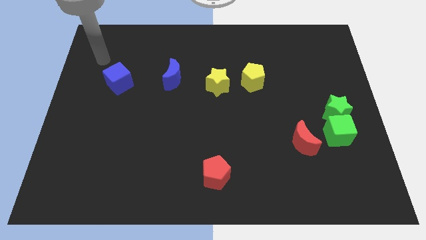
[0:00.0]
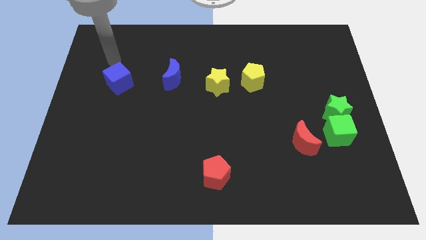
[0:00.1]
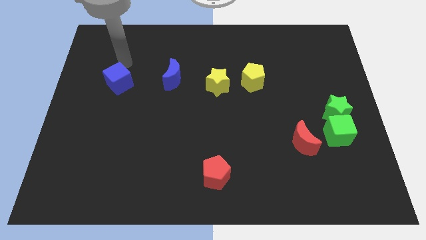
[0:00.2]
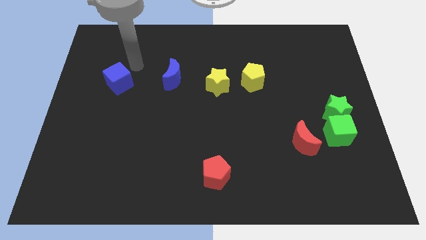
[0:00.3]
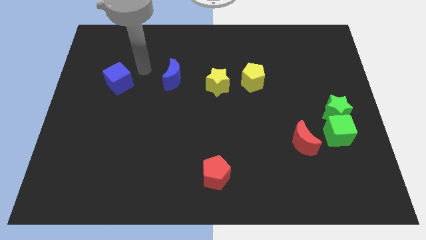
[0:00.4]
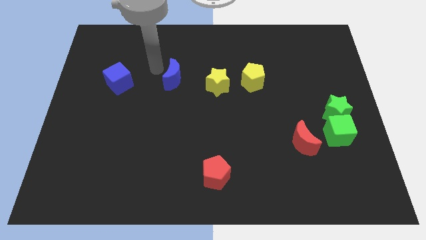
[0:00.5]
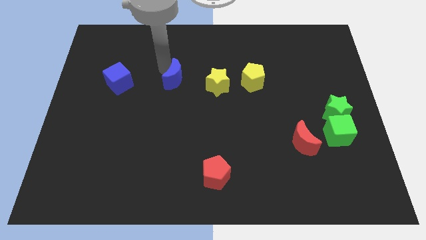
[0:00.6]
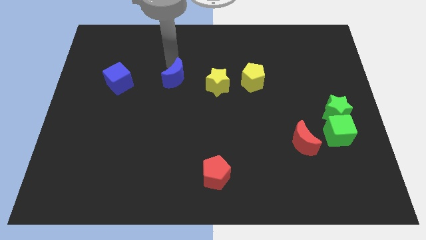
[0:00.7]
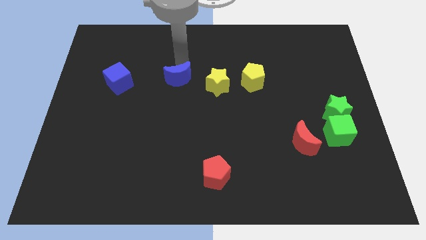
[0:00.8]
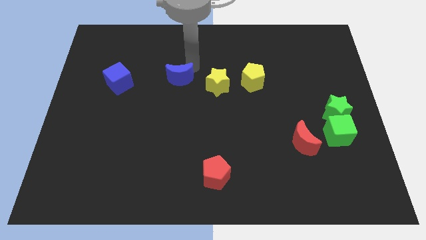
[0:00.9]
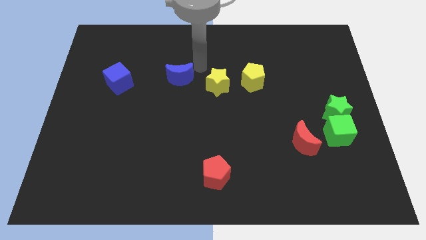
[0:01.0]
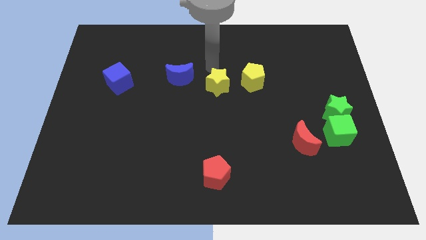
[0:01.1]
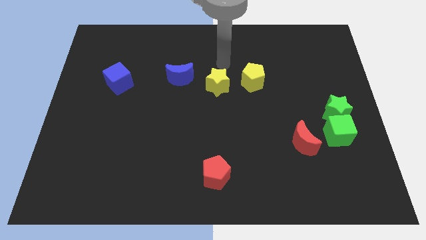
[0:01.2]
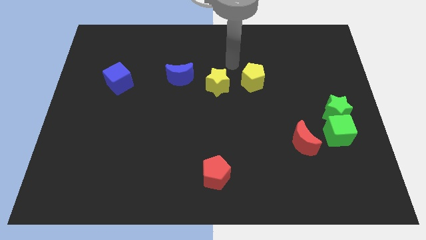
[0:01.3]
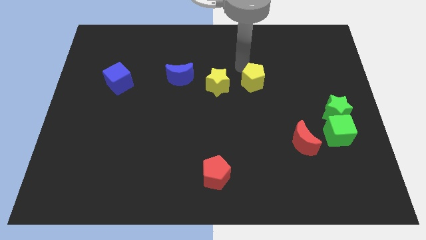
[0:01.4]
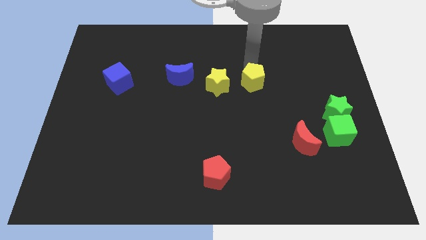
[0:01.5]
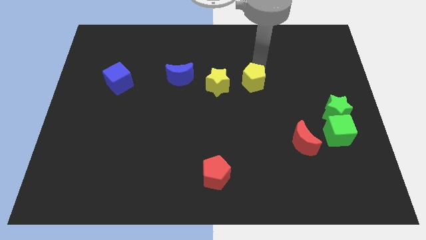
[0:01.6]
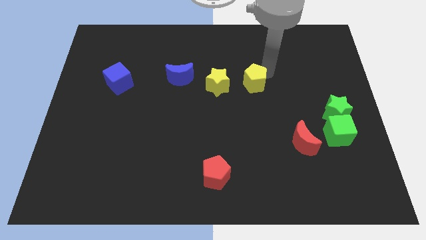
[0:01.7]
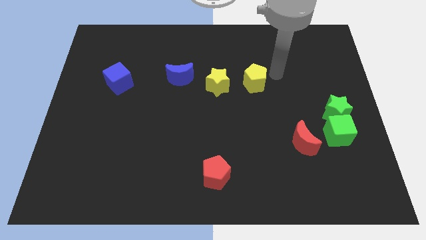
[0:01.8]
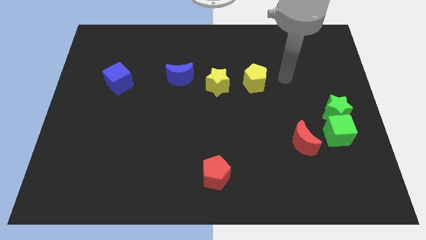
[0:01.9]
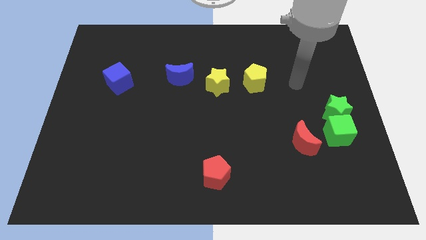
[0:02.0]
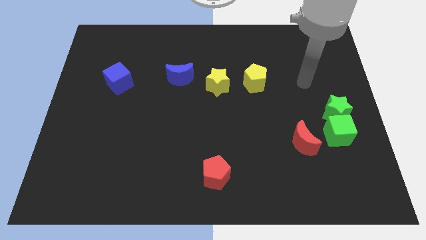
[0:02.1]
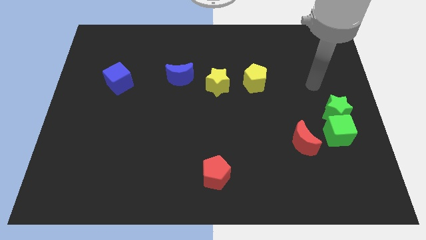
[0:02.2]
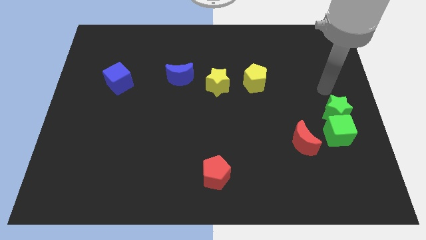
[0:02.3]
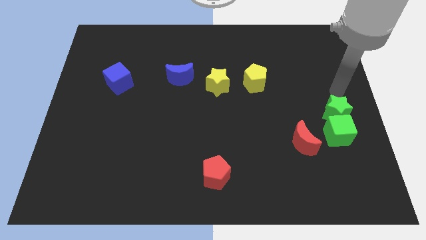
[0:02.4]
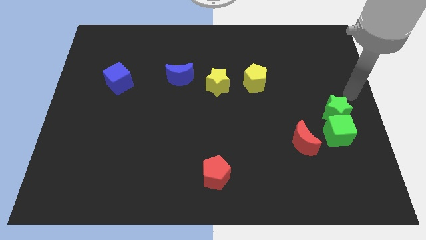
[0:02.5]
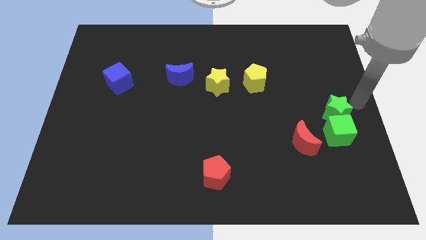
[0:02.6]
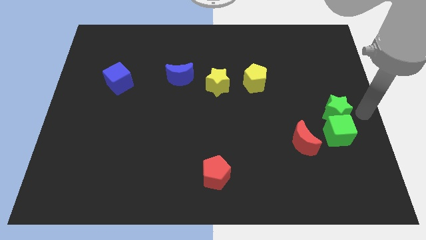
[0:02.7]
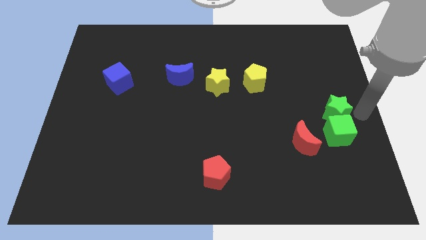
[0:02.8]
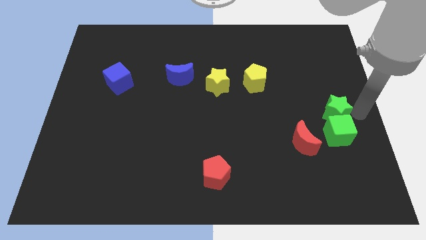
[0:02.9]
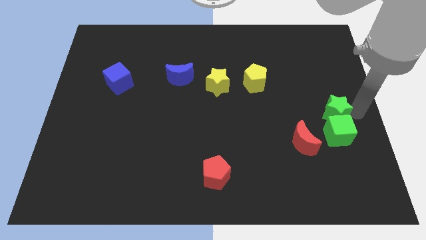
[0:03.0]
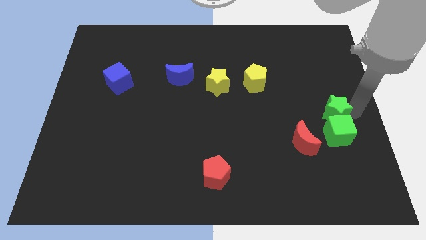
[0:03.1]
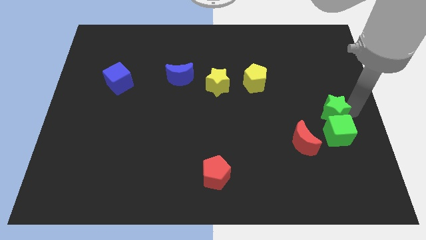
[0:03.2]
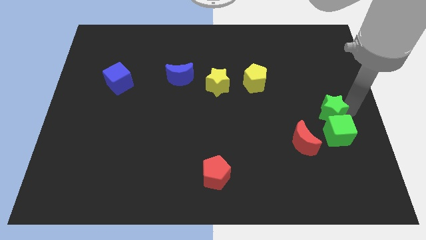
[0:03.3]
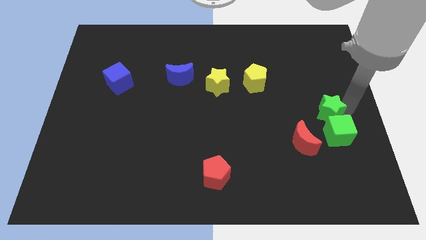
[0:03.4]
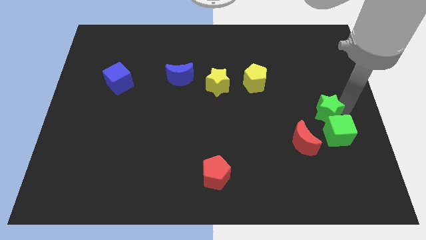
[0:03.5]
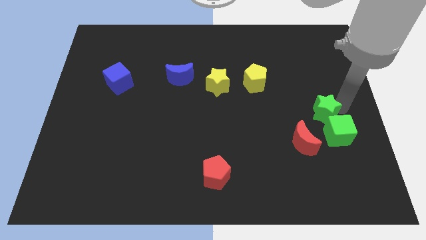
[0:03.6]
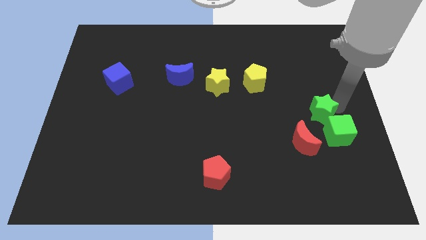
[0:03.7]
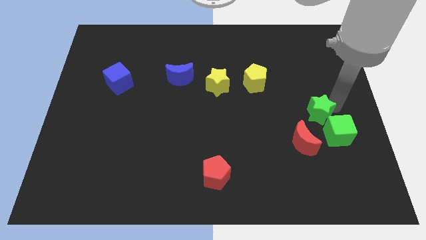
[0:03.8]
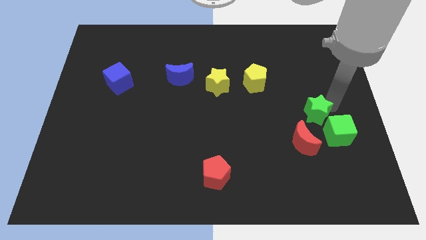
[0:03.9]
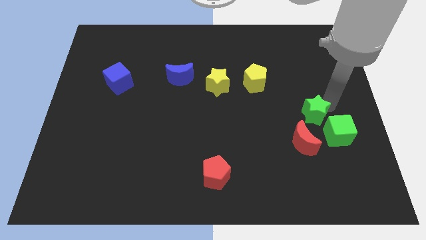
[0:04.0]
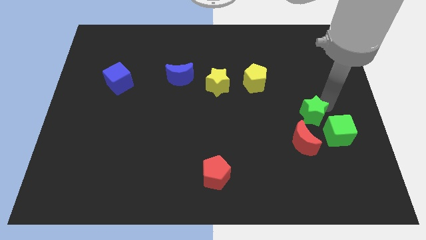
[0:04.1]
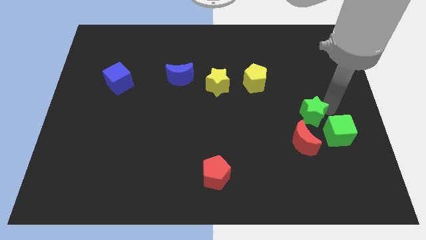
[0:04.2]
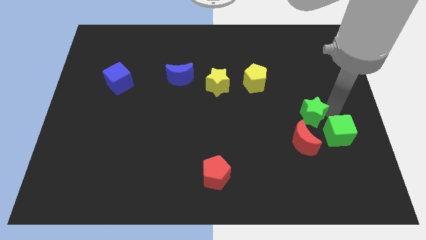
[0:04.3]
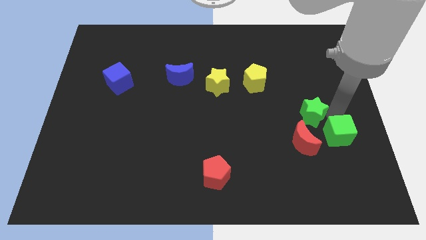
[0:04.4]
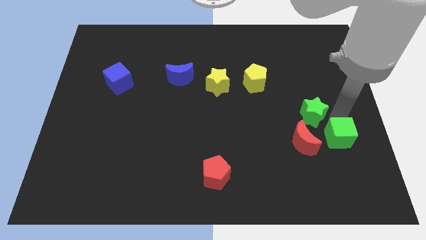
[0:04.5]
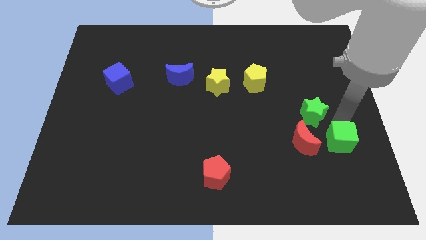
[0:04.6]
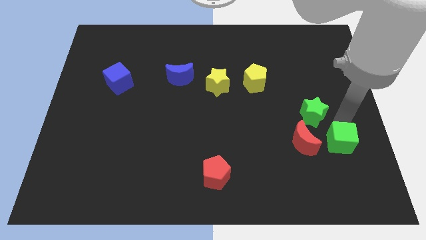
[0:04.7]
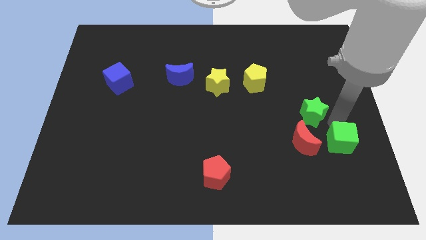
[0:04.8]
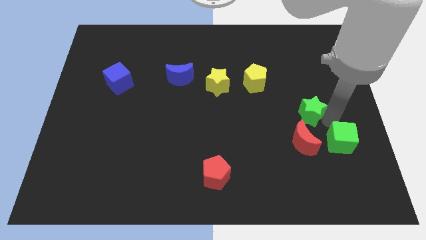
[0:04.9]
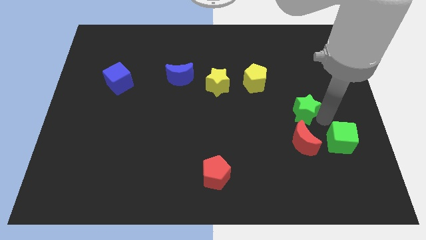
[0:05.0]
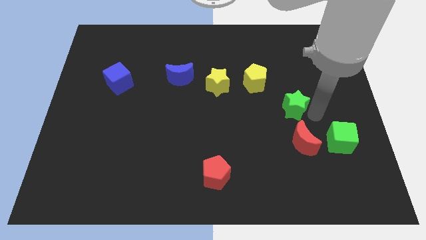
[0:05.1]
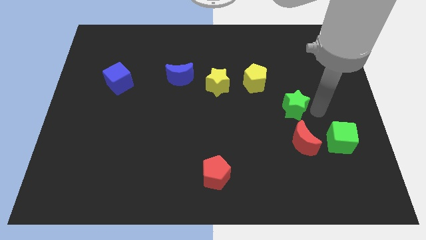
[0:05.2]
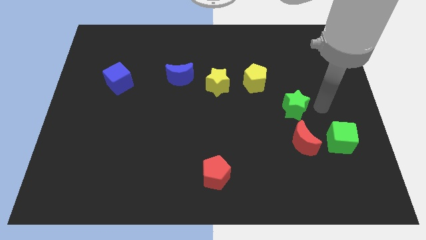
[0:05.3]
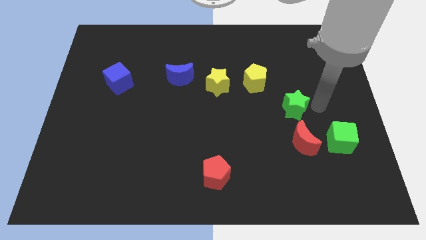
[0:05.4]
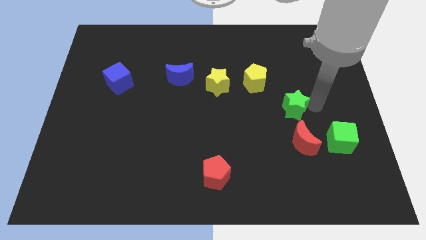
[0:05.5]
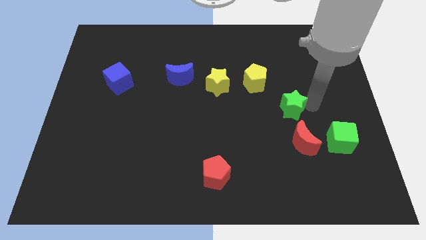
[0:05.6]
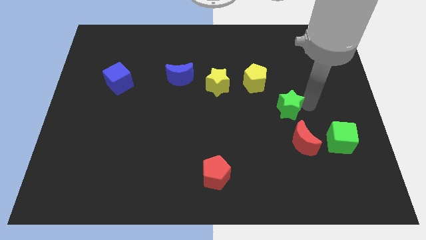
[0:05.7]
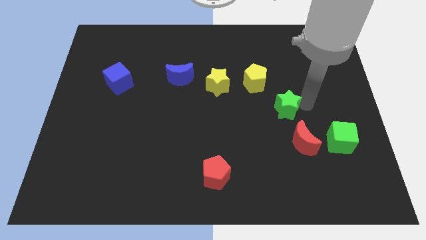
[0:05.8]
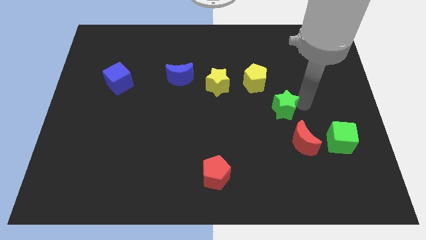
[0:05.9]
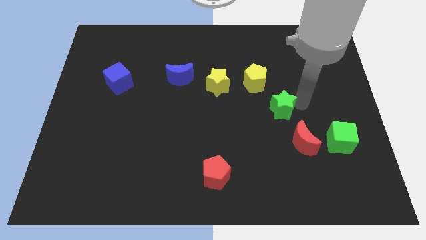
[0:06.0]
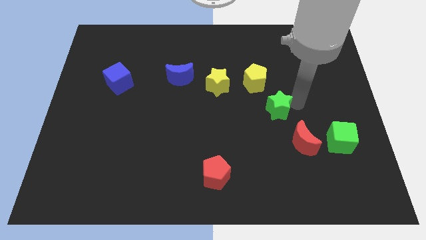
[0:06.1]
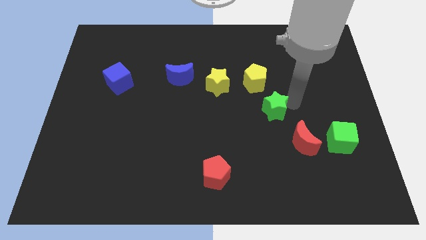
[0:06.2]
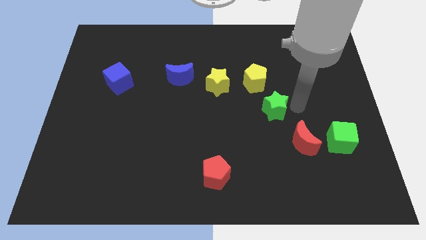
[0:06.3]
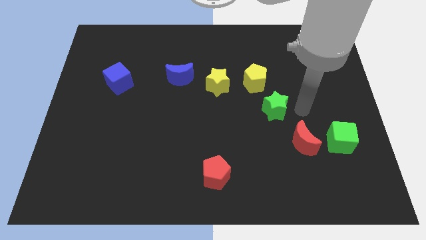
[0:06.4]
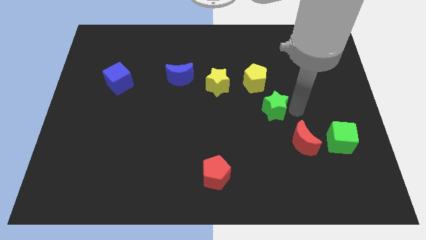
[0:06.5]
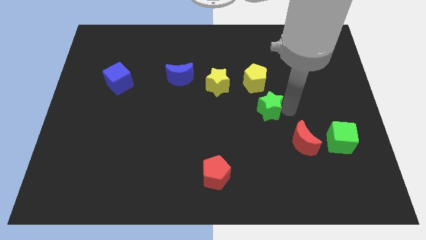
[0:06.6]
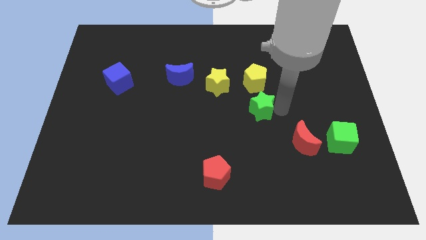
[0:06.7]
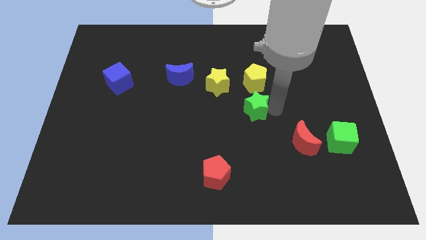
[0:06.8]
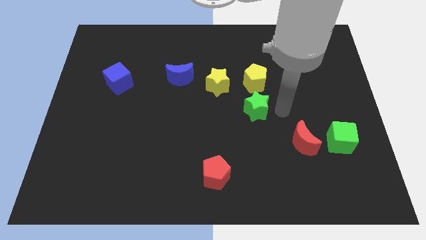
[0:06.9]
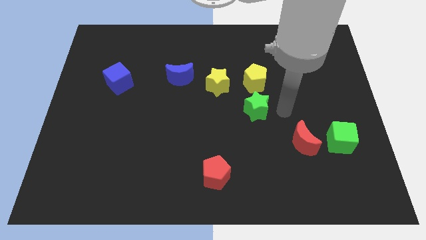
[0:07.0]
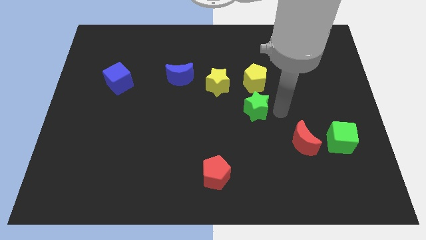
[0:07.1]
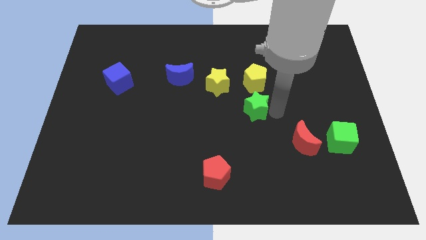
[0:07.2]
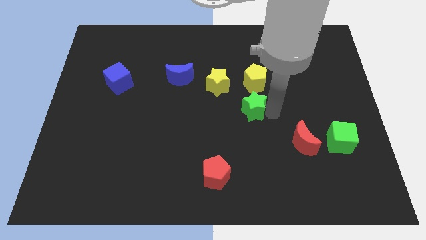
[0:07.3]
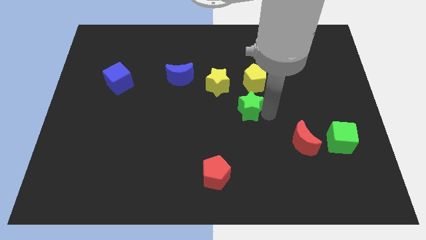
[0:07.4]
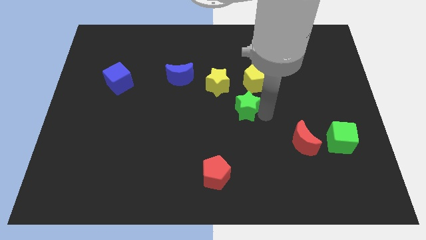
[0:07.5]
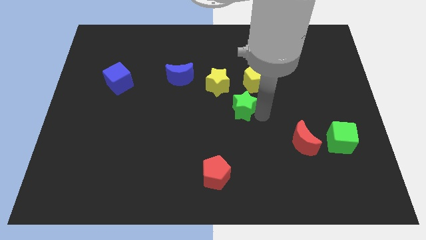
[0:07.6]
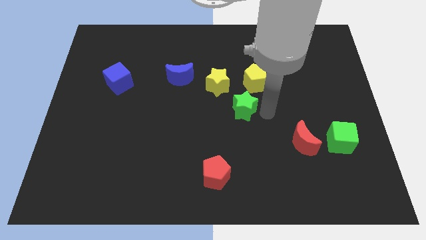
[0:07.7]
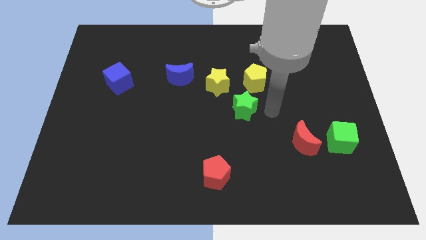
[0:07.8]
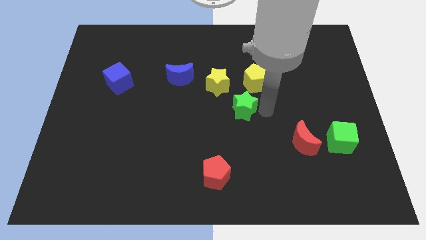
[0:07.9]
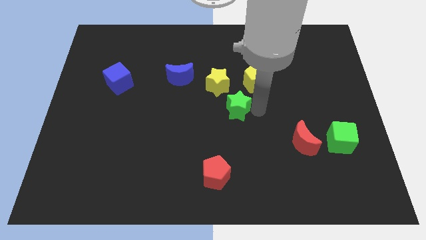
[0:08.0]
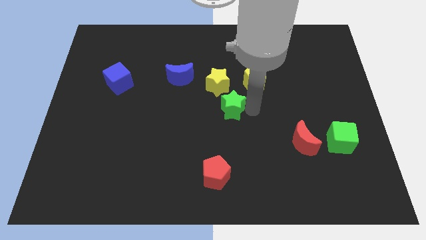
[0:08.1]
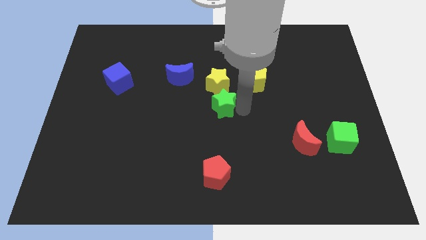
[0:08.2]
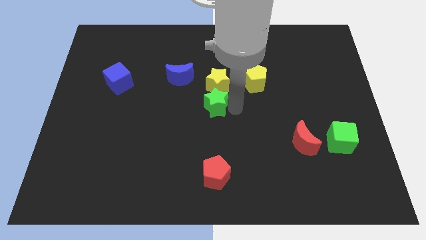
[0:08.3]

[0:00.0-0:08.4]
put the green star to the bottom left of the yellow star
